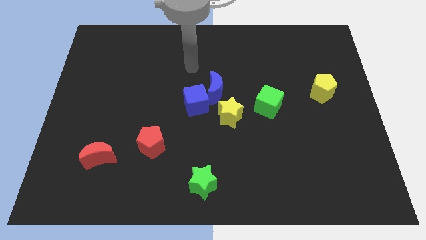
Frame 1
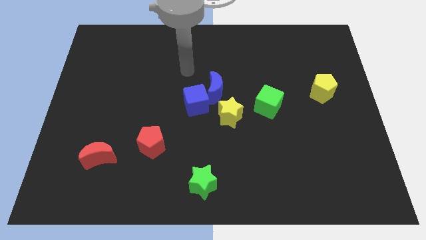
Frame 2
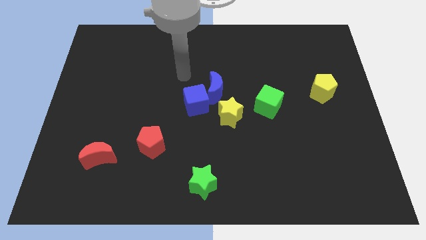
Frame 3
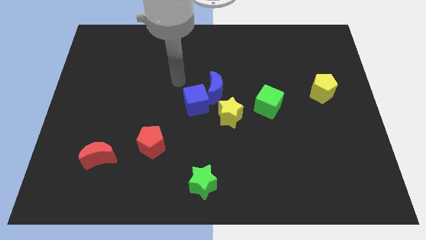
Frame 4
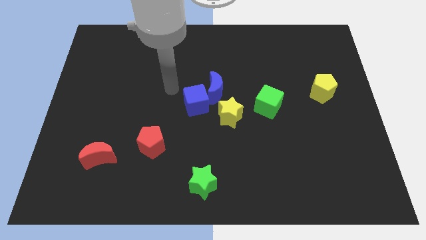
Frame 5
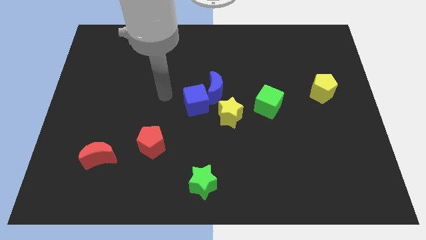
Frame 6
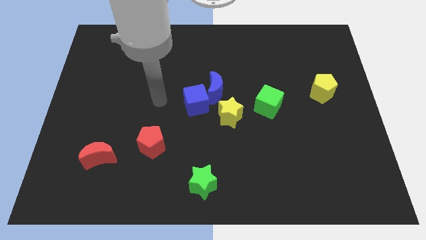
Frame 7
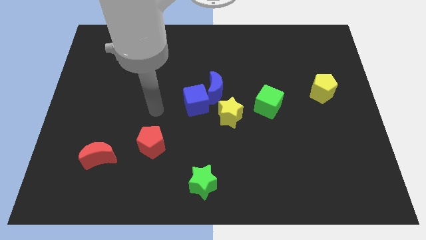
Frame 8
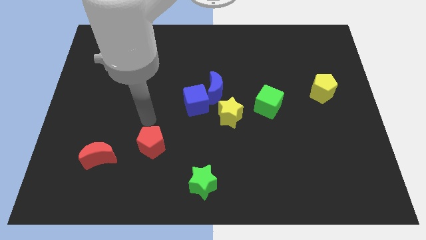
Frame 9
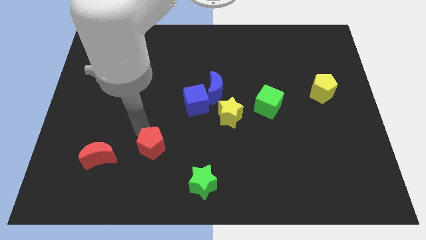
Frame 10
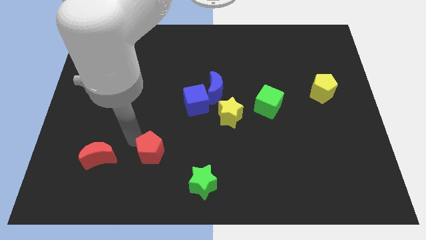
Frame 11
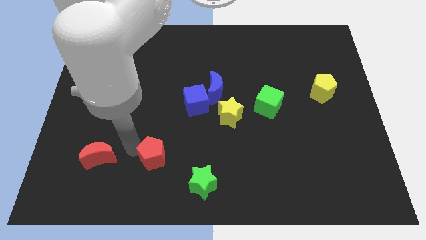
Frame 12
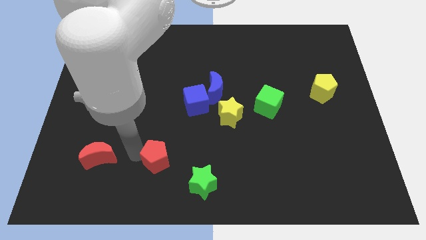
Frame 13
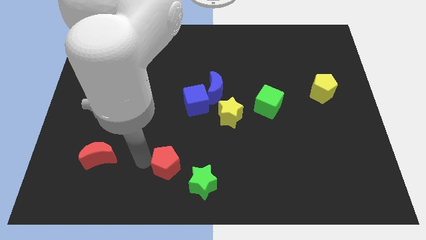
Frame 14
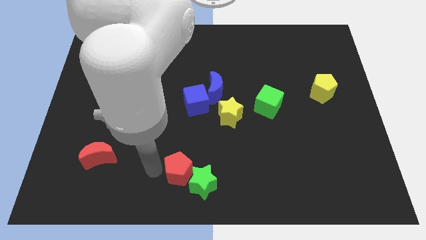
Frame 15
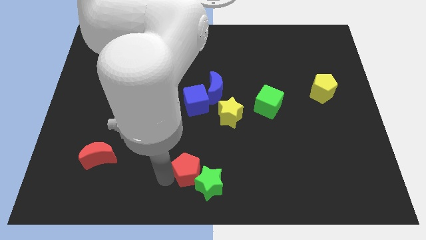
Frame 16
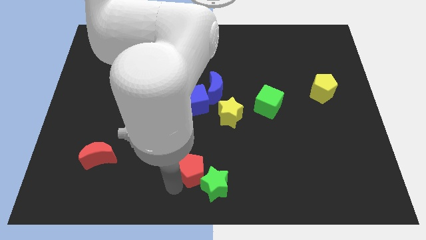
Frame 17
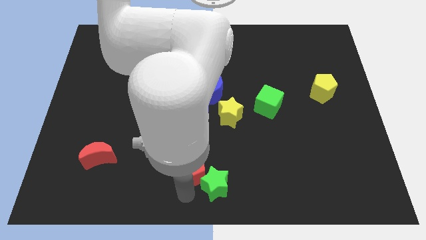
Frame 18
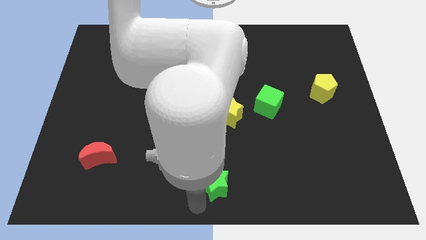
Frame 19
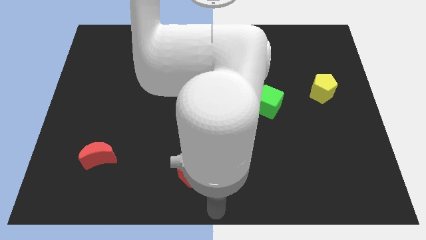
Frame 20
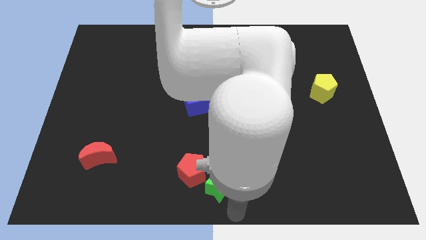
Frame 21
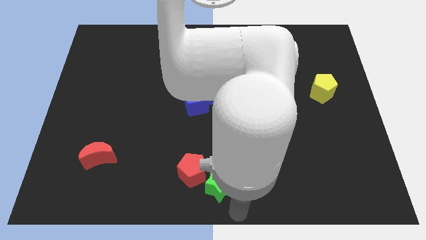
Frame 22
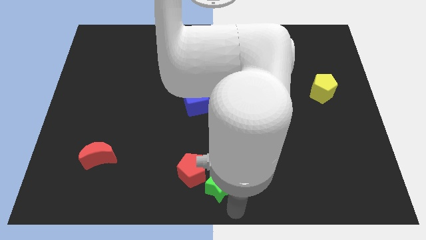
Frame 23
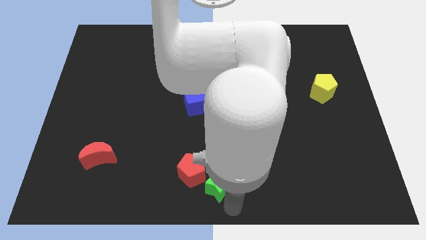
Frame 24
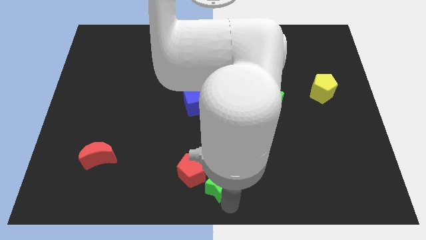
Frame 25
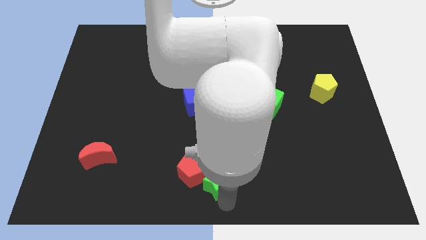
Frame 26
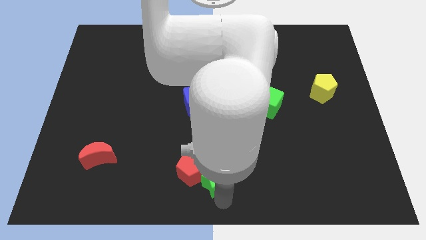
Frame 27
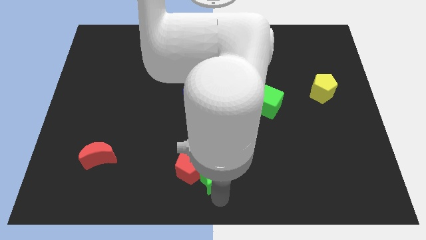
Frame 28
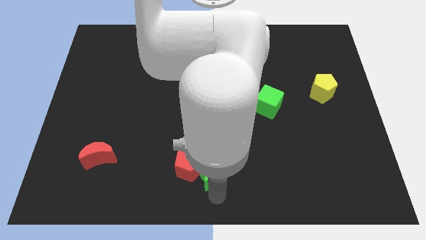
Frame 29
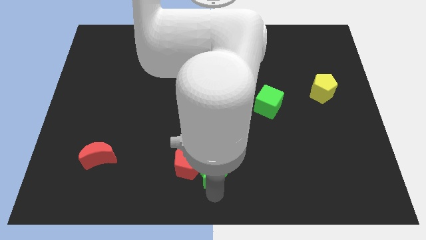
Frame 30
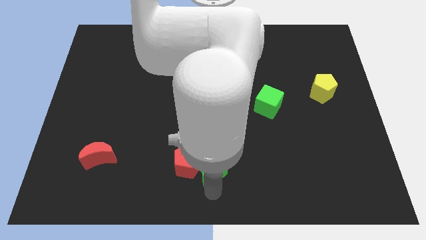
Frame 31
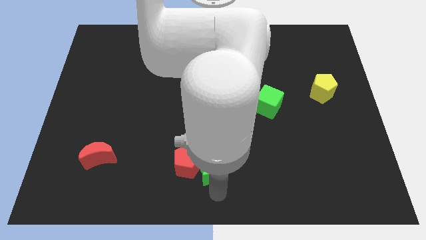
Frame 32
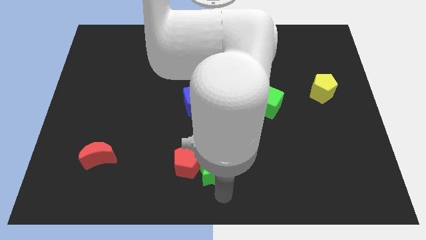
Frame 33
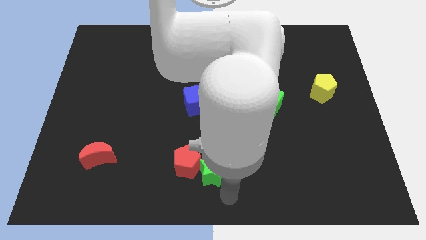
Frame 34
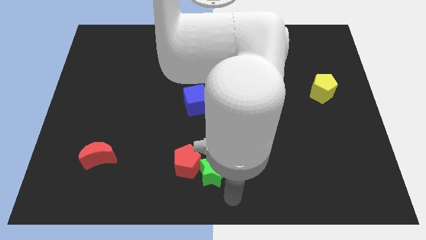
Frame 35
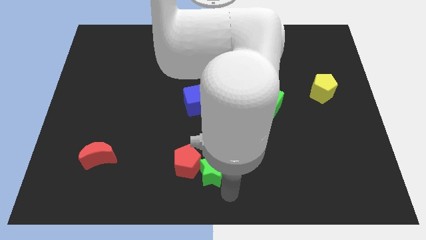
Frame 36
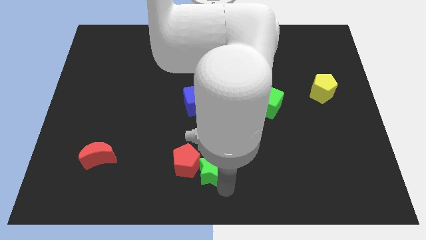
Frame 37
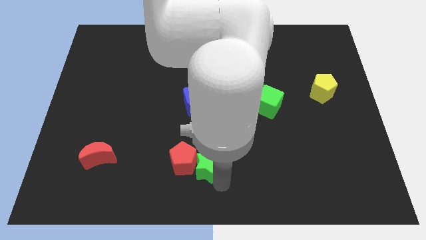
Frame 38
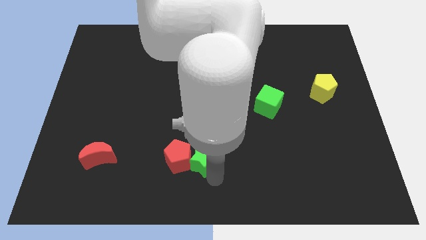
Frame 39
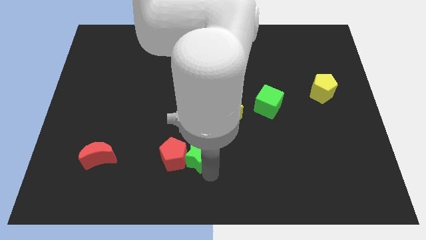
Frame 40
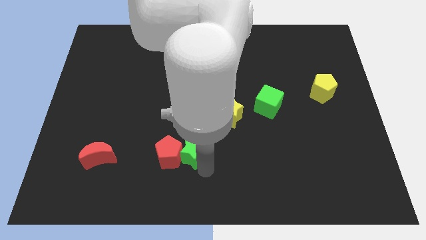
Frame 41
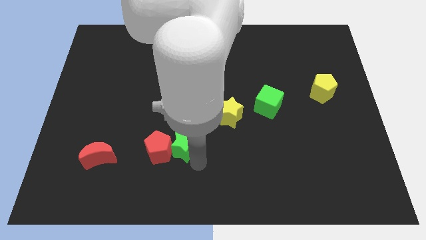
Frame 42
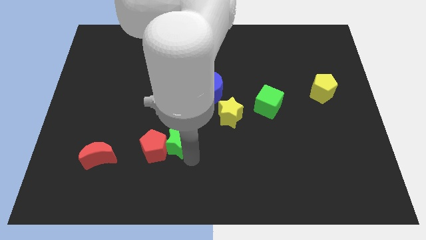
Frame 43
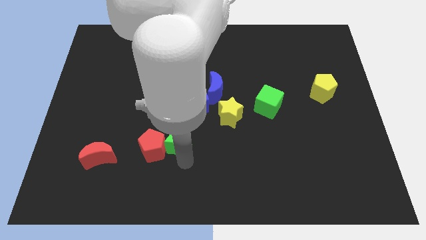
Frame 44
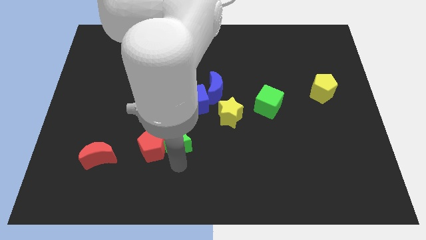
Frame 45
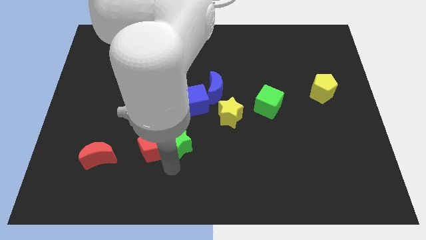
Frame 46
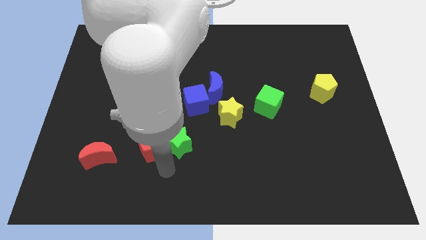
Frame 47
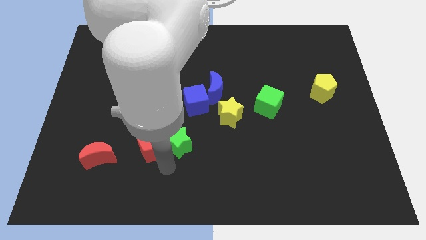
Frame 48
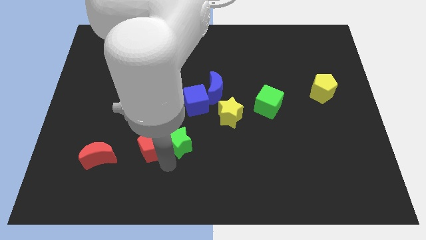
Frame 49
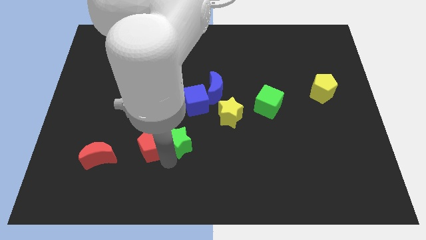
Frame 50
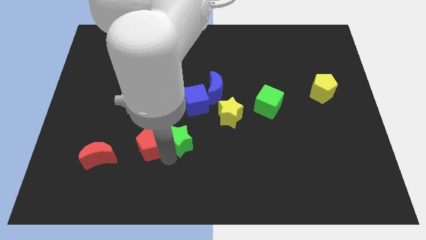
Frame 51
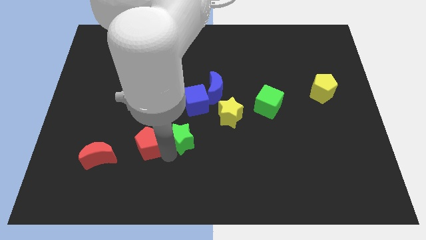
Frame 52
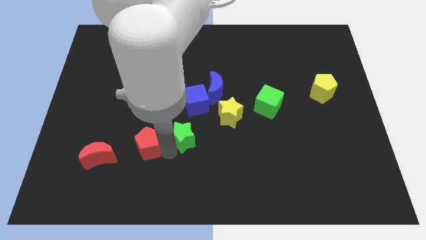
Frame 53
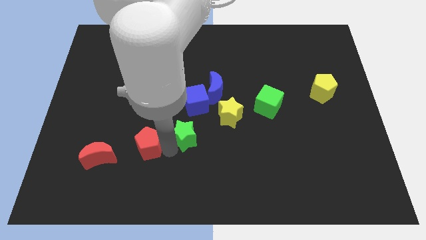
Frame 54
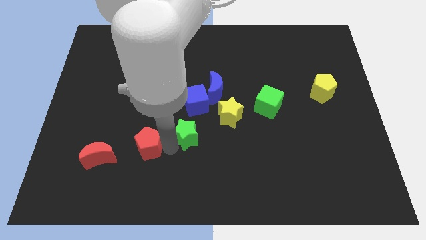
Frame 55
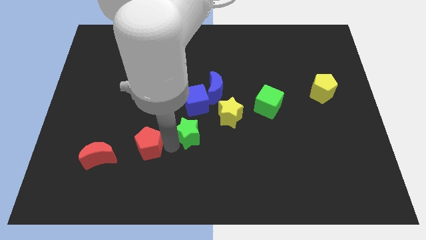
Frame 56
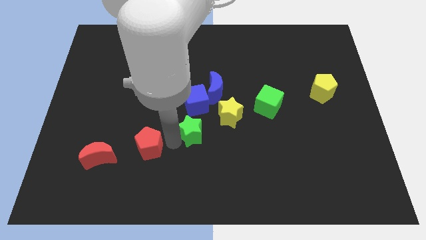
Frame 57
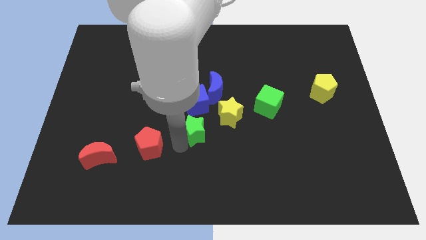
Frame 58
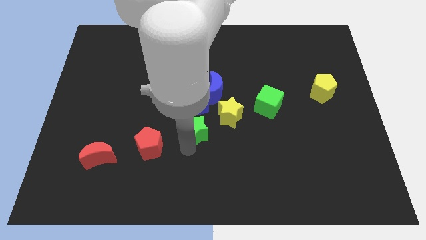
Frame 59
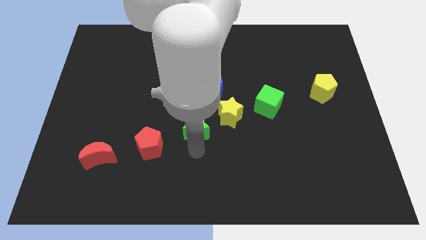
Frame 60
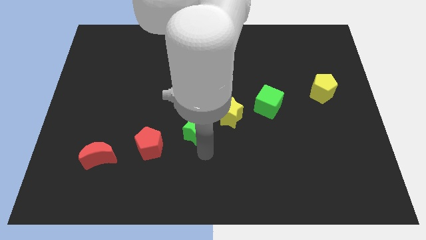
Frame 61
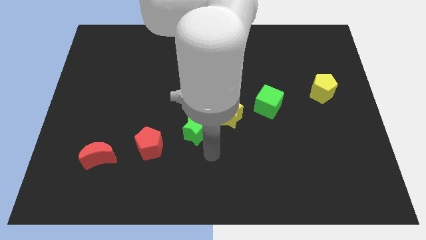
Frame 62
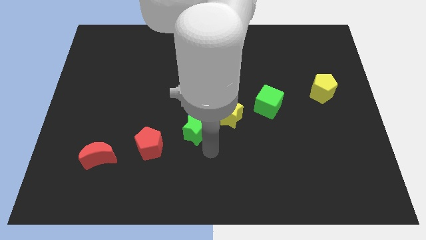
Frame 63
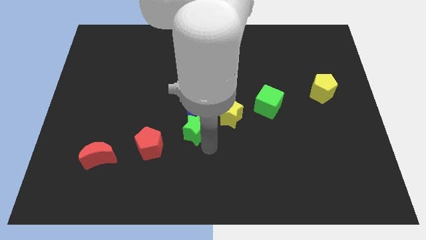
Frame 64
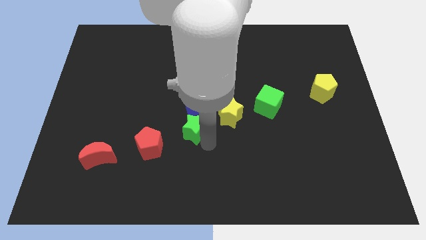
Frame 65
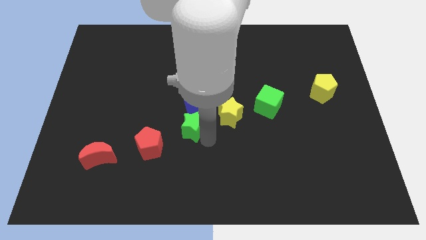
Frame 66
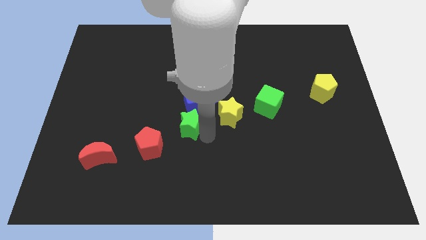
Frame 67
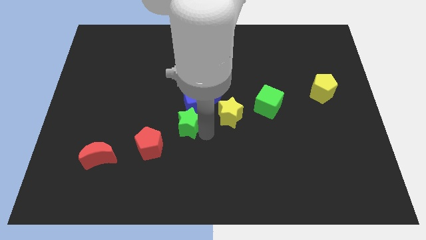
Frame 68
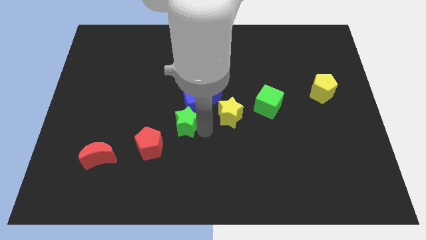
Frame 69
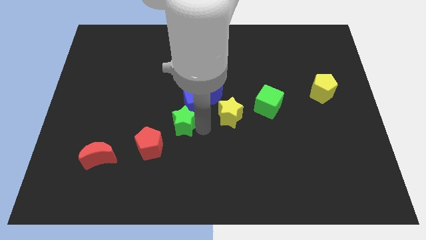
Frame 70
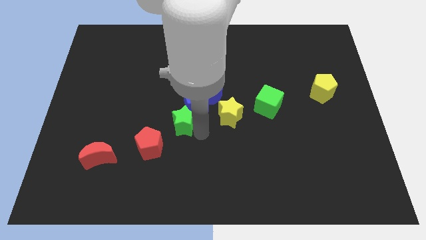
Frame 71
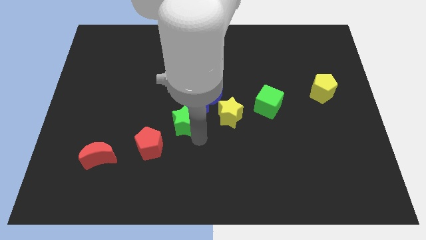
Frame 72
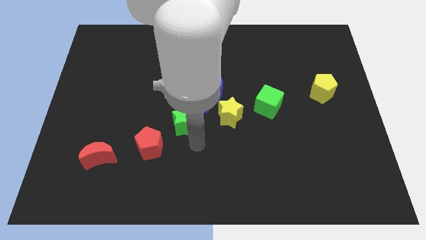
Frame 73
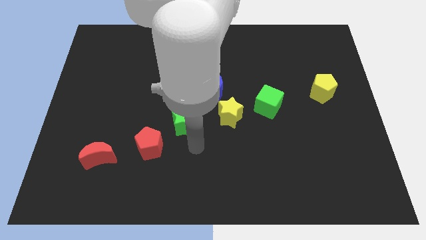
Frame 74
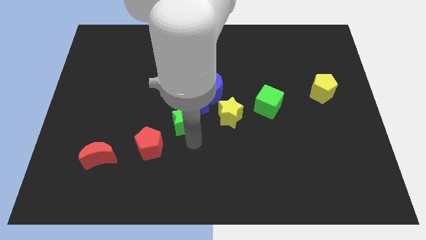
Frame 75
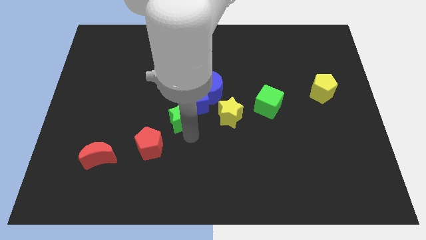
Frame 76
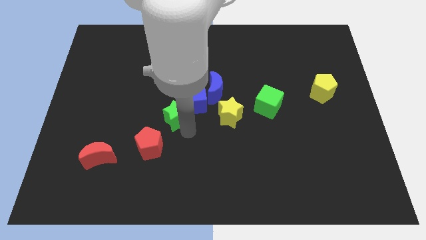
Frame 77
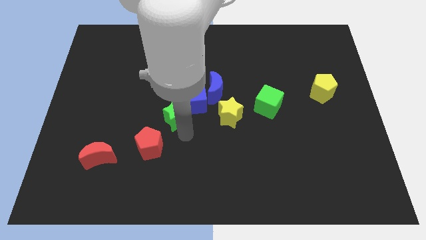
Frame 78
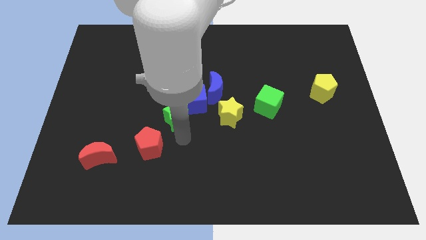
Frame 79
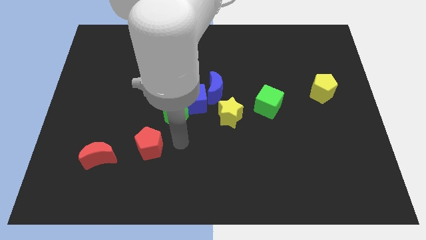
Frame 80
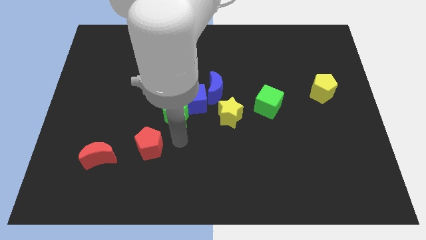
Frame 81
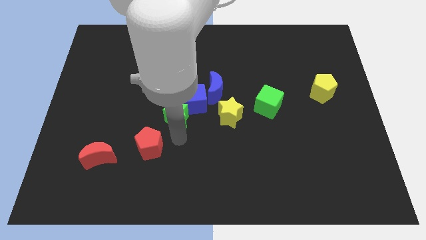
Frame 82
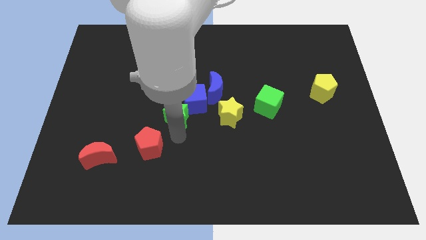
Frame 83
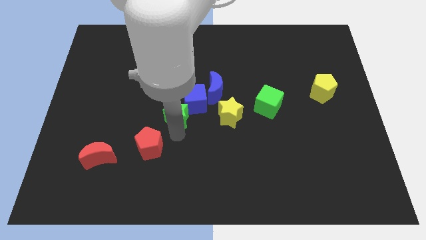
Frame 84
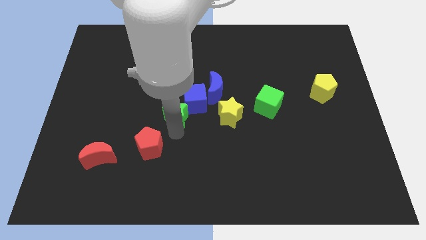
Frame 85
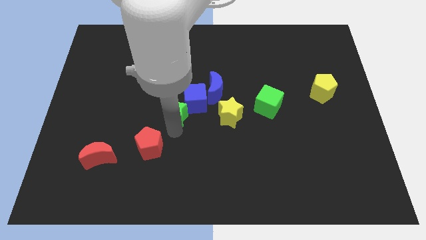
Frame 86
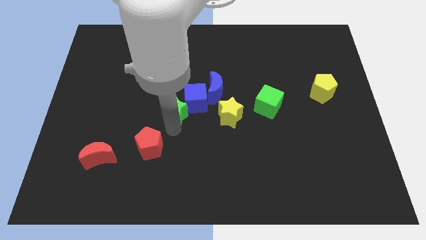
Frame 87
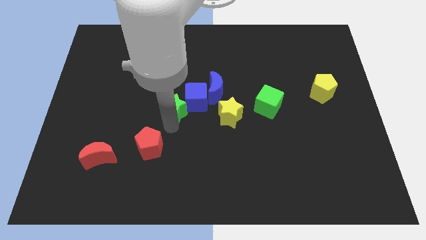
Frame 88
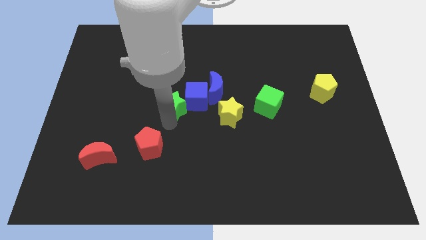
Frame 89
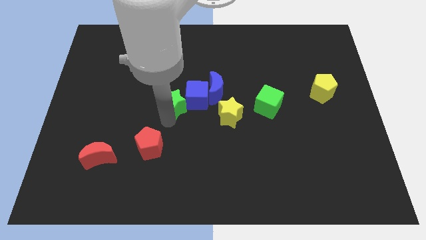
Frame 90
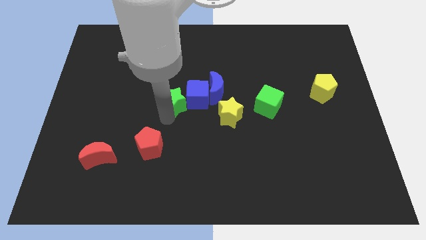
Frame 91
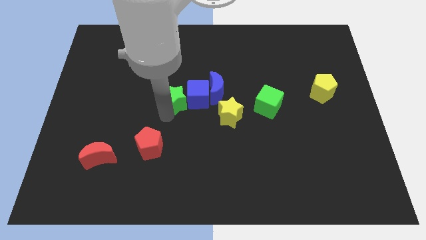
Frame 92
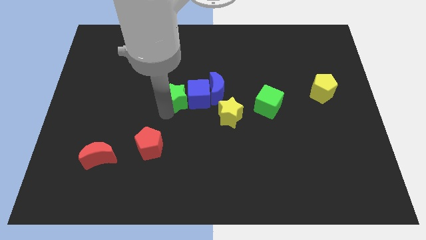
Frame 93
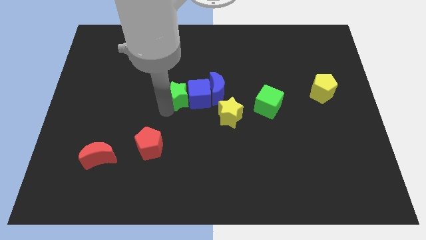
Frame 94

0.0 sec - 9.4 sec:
push the green star upwards
